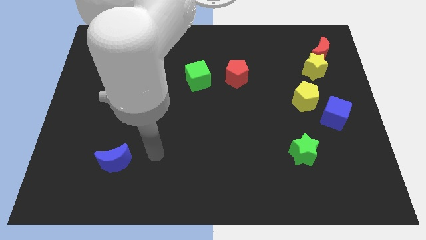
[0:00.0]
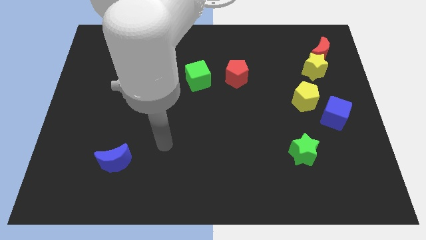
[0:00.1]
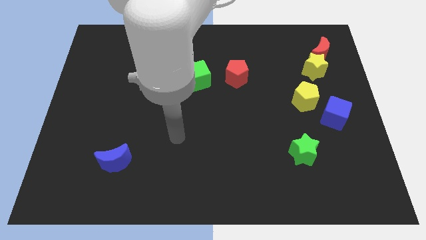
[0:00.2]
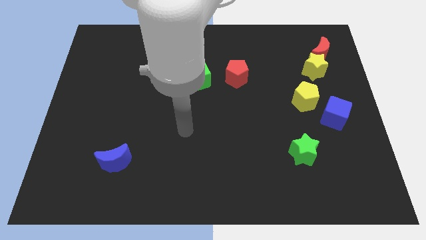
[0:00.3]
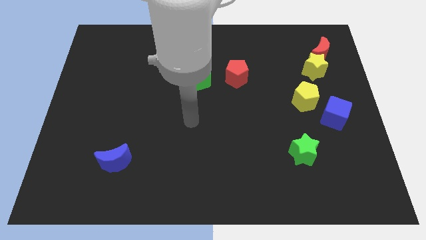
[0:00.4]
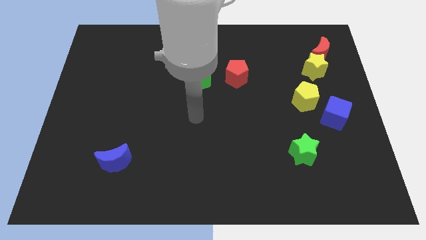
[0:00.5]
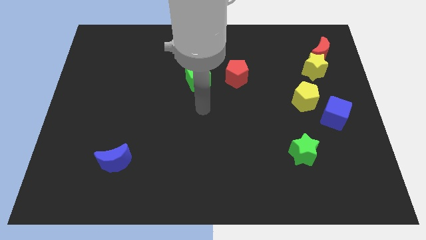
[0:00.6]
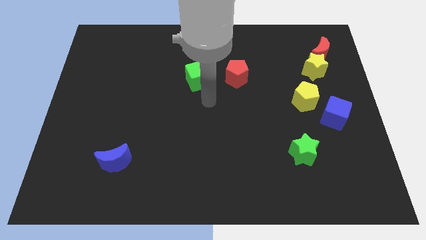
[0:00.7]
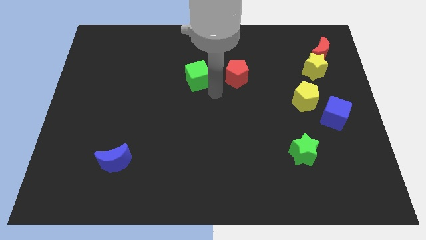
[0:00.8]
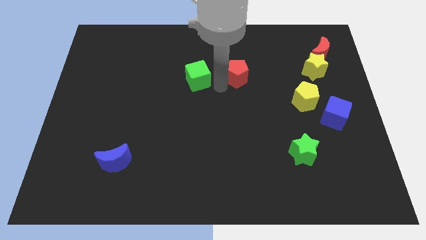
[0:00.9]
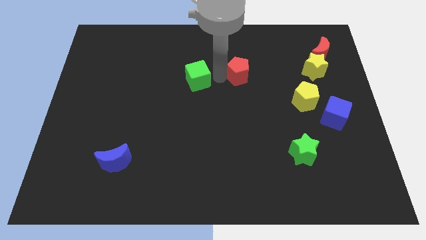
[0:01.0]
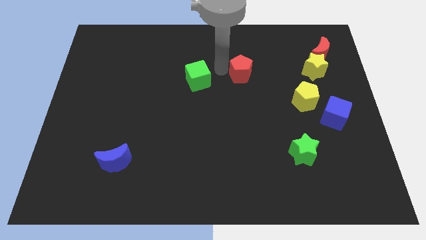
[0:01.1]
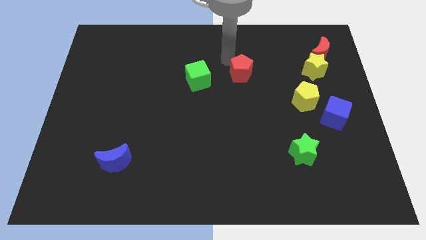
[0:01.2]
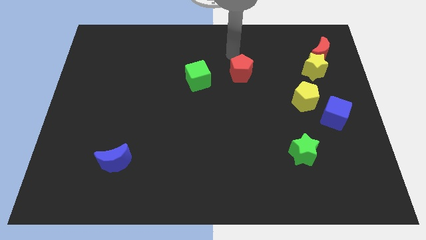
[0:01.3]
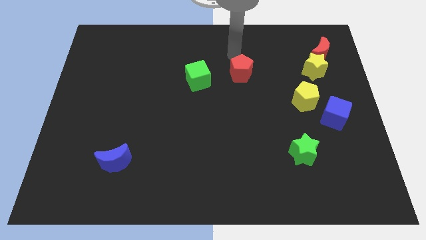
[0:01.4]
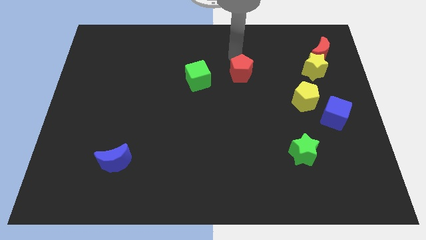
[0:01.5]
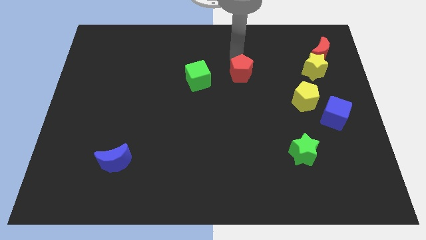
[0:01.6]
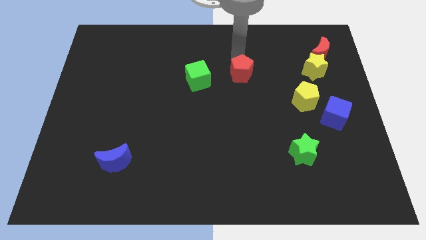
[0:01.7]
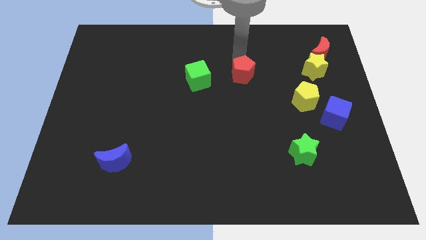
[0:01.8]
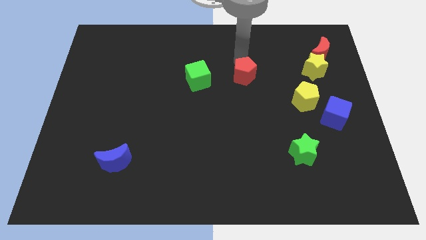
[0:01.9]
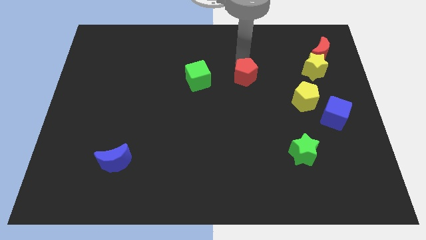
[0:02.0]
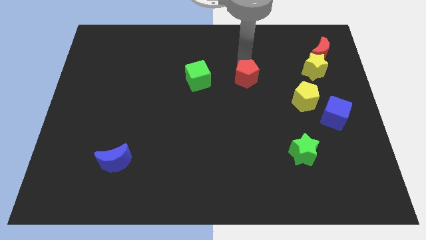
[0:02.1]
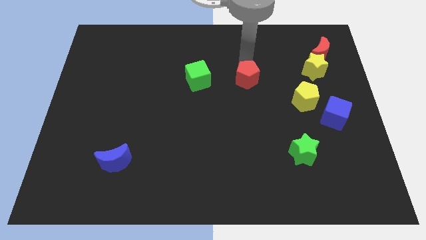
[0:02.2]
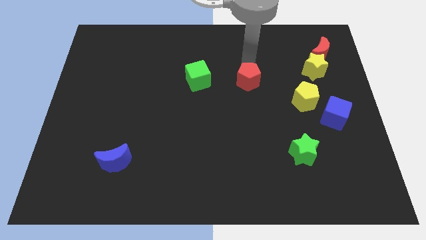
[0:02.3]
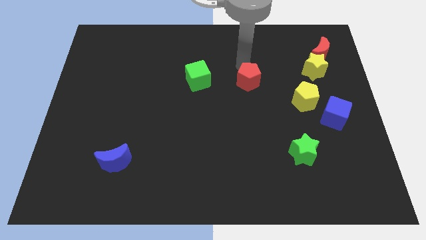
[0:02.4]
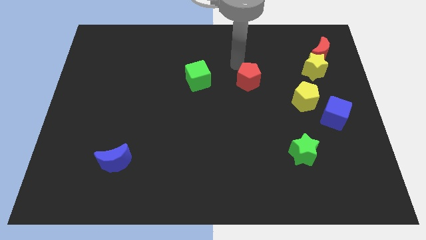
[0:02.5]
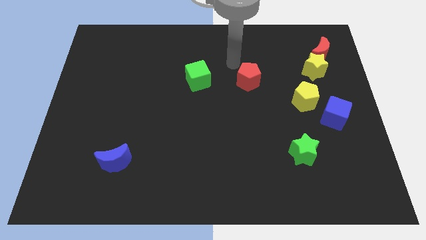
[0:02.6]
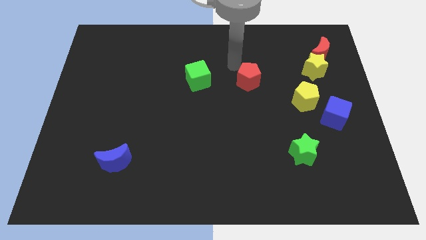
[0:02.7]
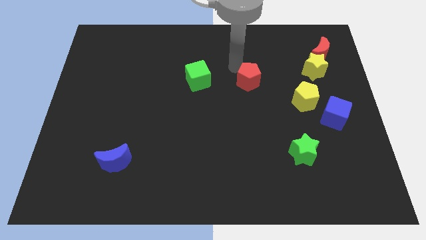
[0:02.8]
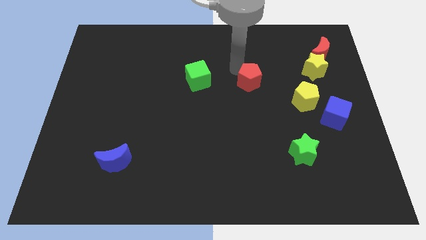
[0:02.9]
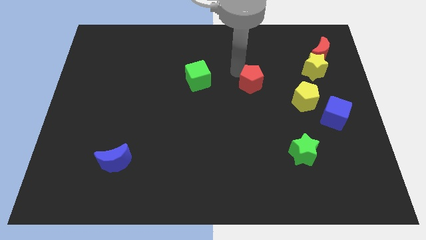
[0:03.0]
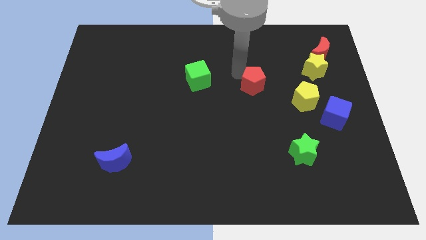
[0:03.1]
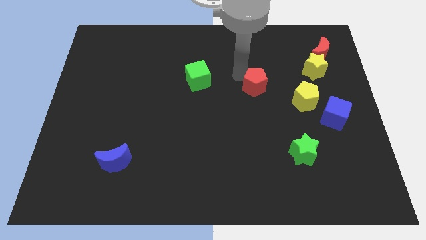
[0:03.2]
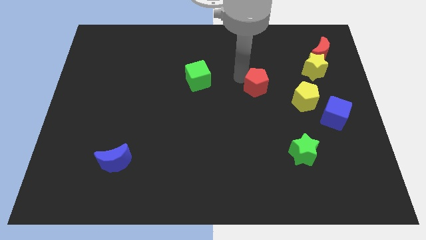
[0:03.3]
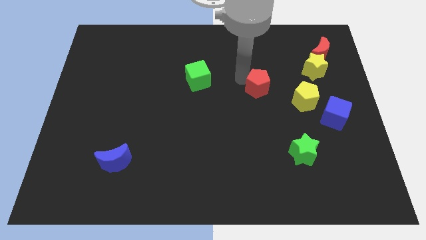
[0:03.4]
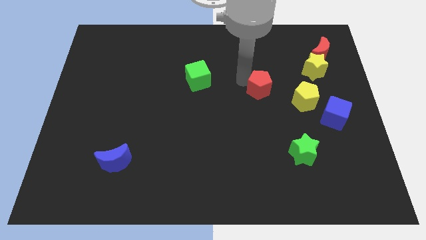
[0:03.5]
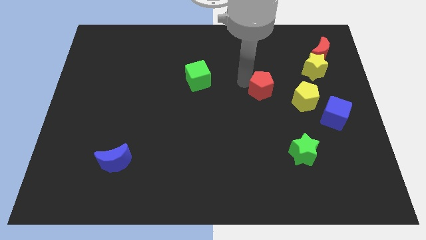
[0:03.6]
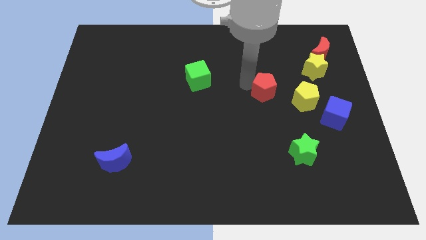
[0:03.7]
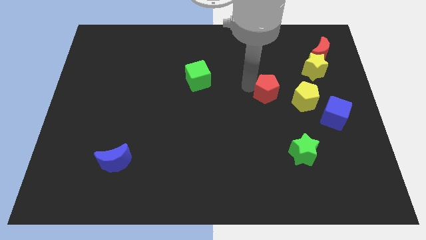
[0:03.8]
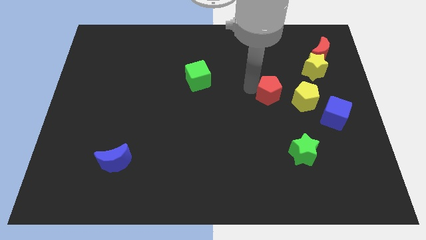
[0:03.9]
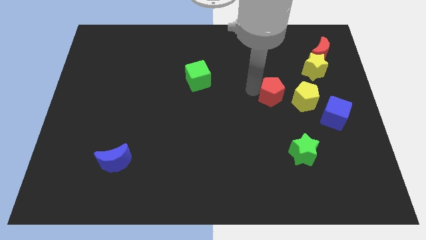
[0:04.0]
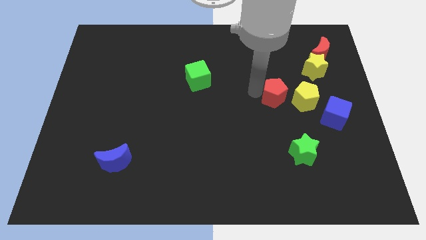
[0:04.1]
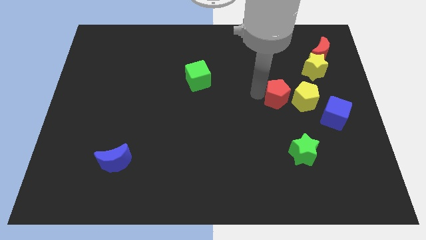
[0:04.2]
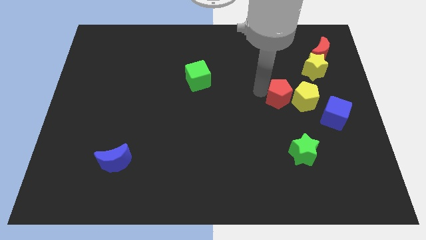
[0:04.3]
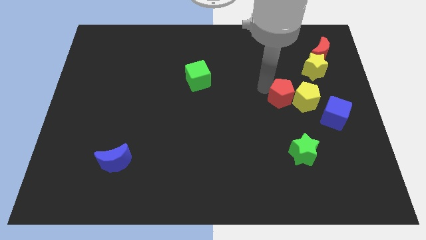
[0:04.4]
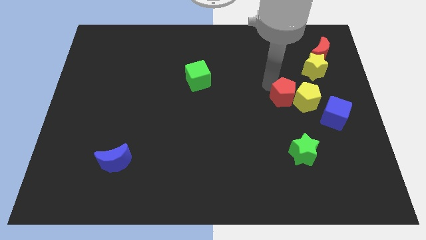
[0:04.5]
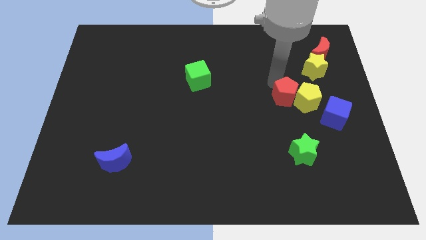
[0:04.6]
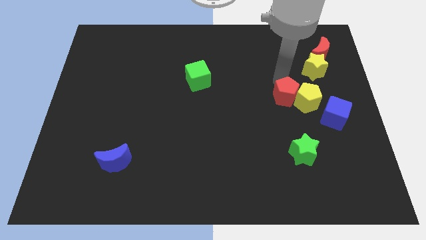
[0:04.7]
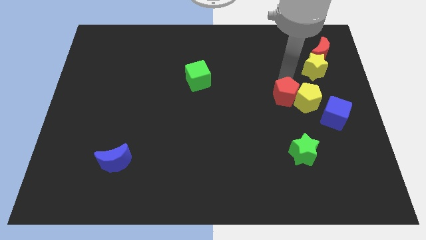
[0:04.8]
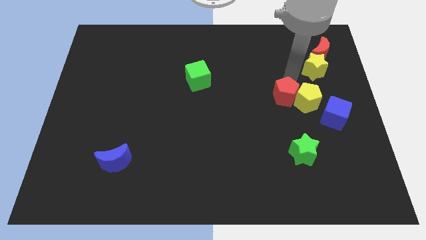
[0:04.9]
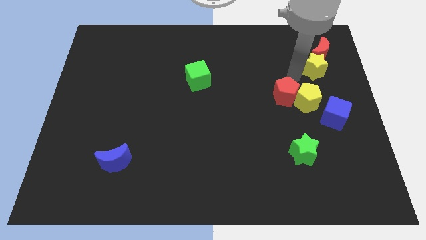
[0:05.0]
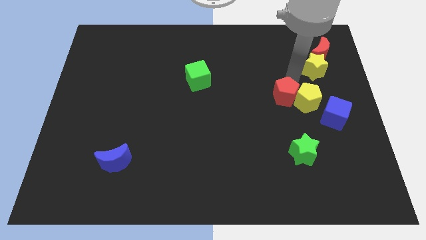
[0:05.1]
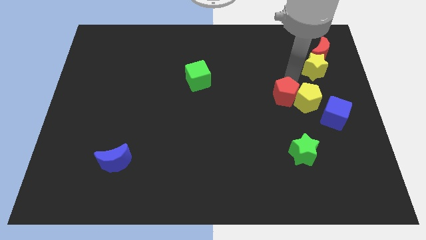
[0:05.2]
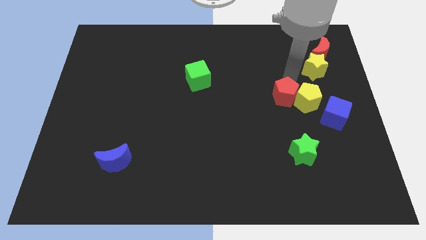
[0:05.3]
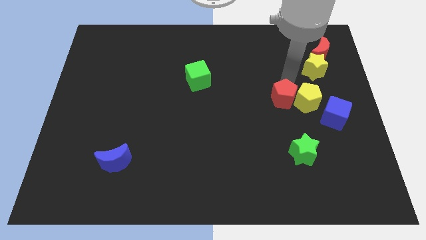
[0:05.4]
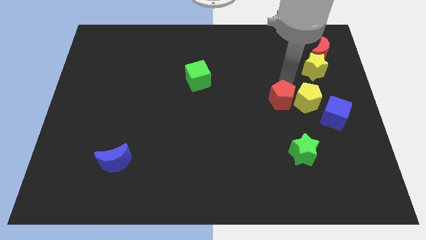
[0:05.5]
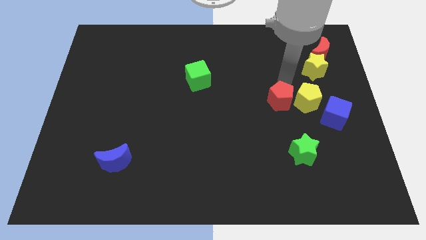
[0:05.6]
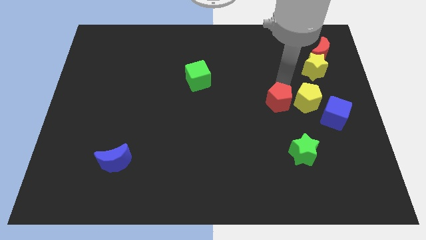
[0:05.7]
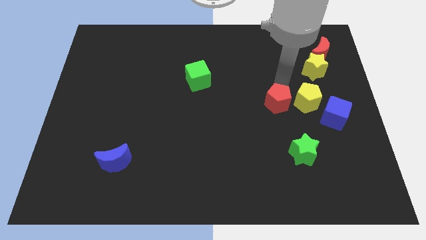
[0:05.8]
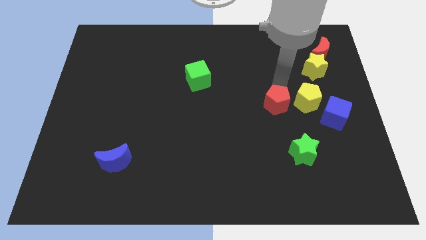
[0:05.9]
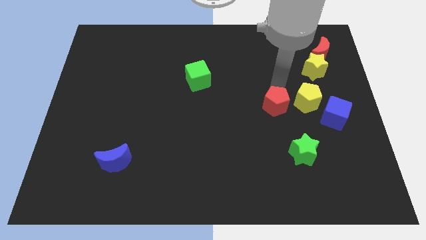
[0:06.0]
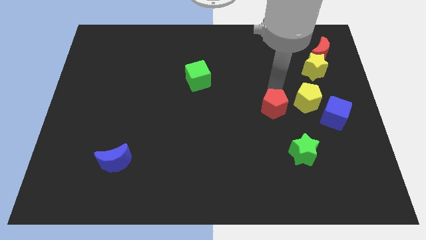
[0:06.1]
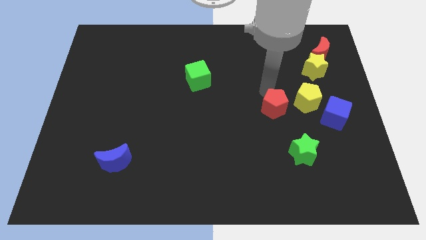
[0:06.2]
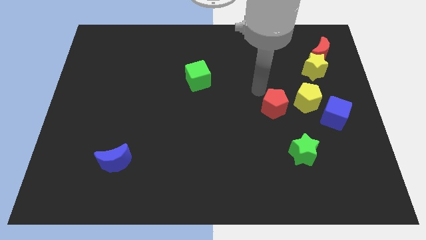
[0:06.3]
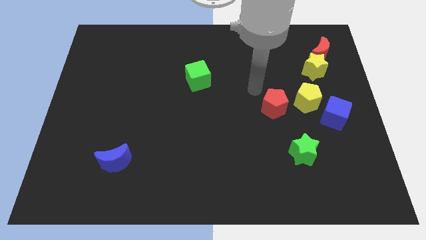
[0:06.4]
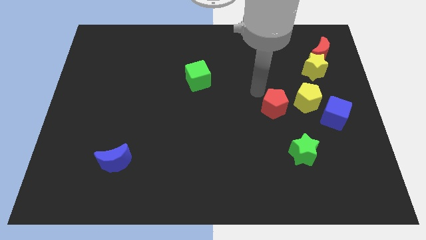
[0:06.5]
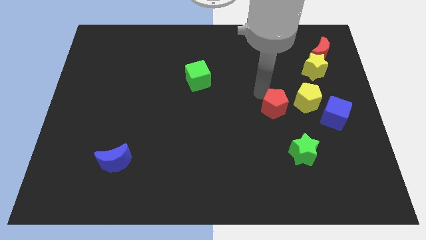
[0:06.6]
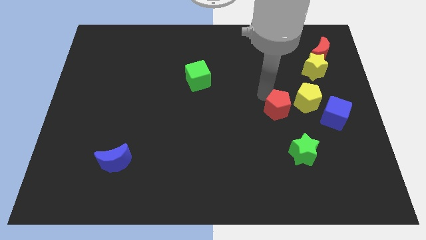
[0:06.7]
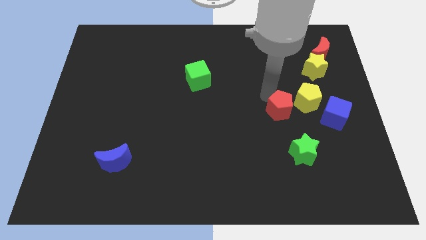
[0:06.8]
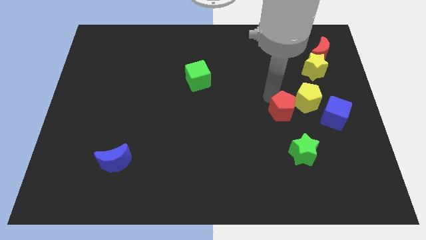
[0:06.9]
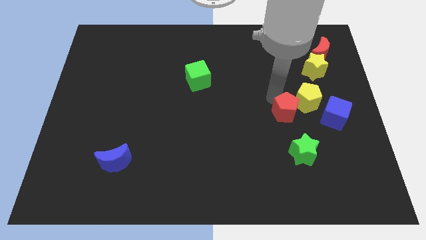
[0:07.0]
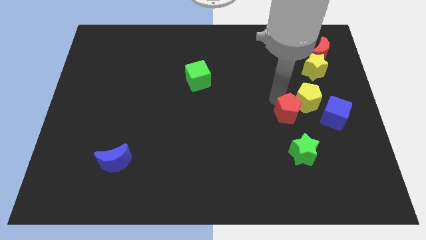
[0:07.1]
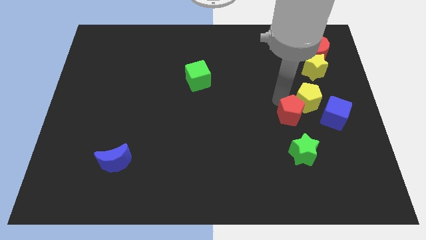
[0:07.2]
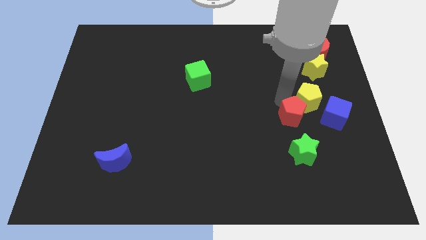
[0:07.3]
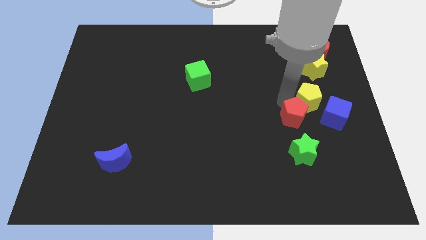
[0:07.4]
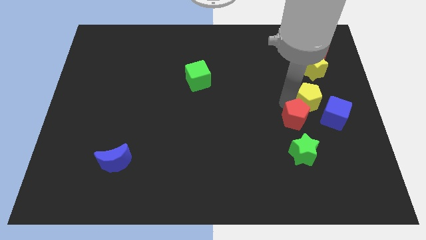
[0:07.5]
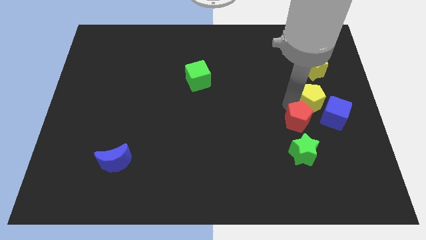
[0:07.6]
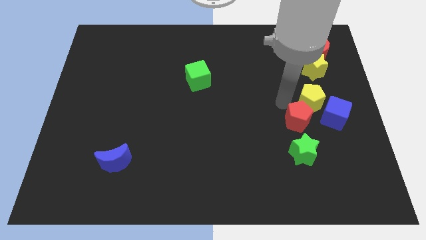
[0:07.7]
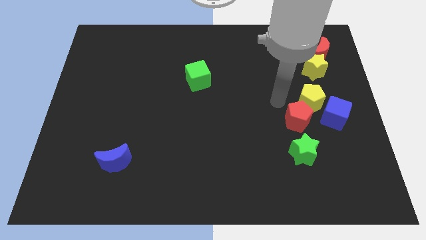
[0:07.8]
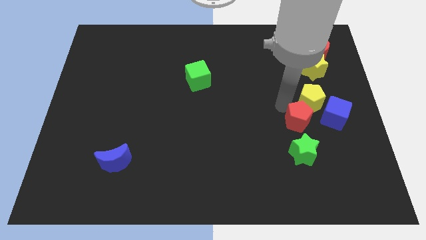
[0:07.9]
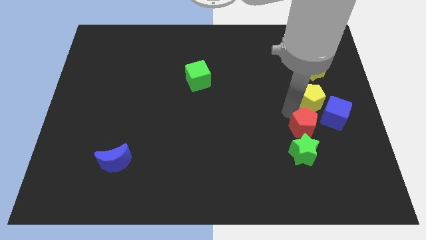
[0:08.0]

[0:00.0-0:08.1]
push the red pentagon downwards and then to the right

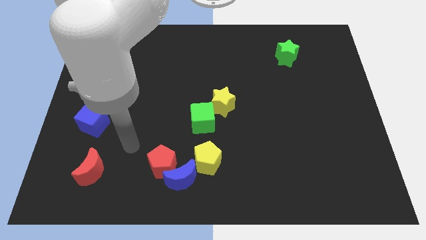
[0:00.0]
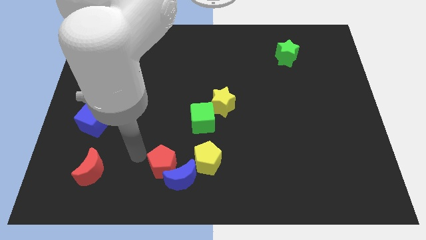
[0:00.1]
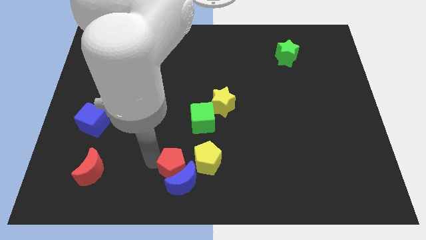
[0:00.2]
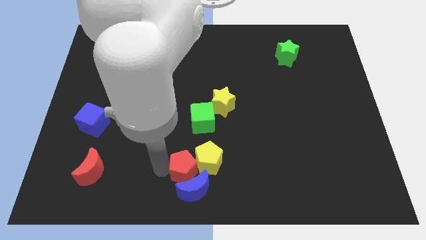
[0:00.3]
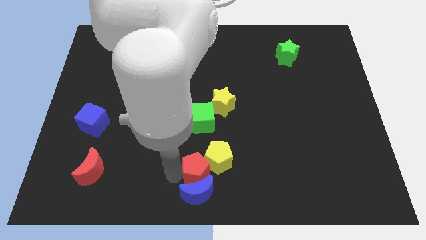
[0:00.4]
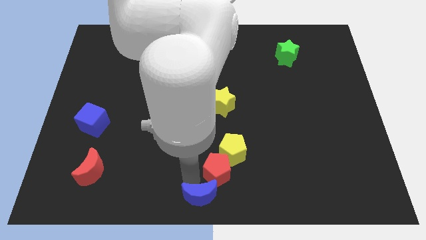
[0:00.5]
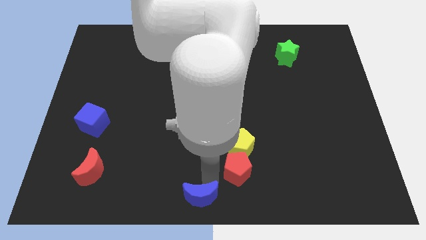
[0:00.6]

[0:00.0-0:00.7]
slide the yellow pentagon a little upwards and then to the right
